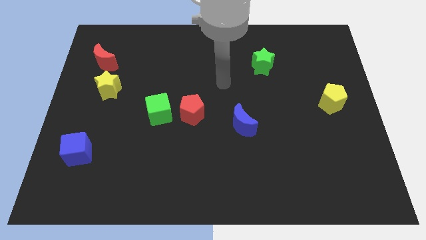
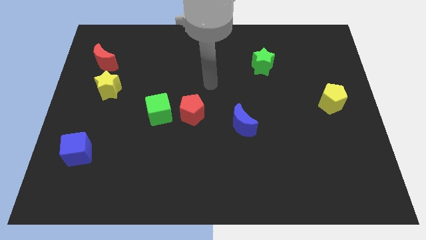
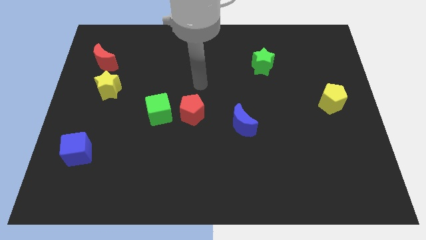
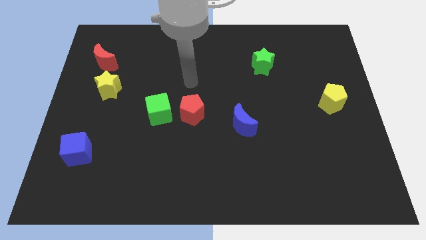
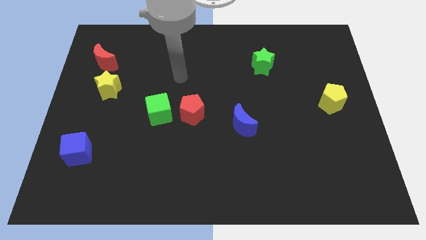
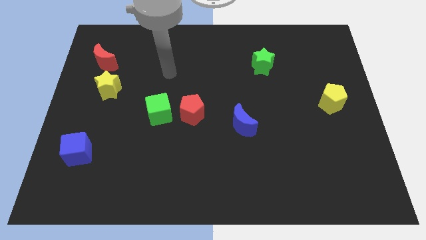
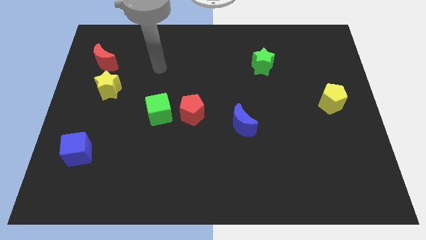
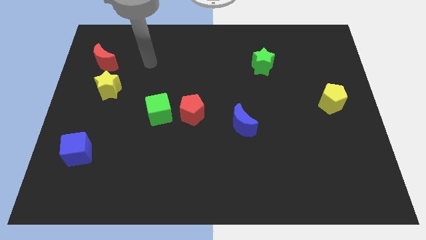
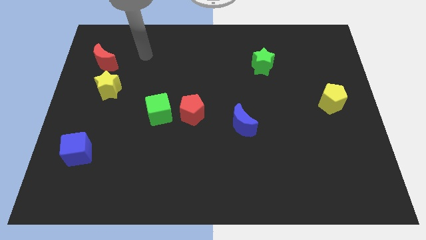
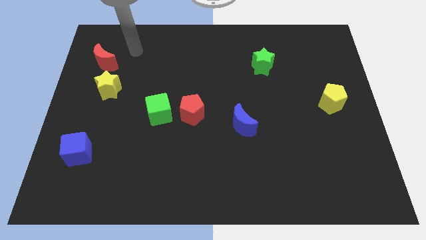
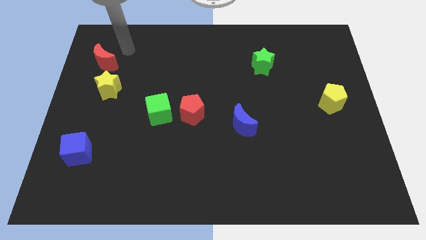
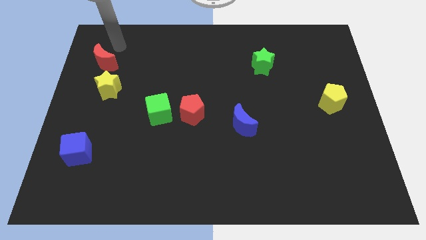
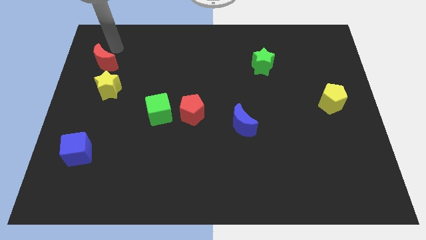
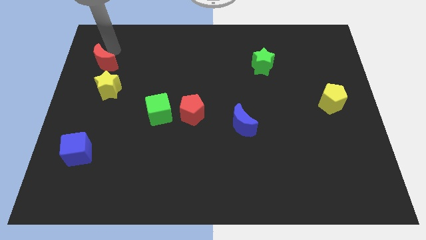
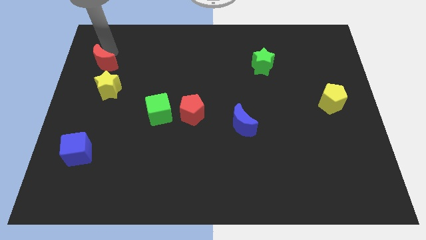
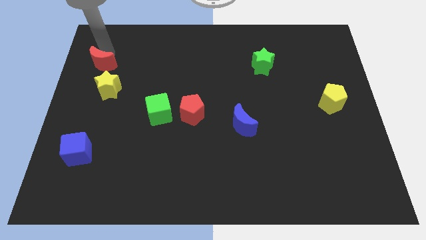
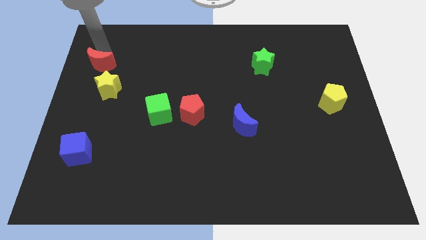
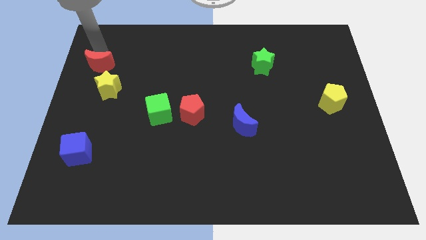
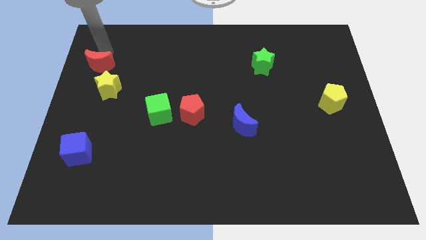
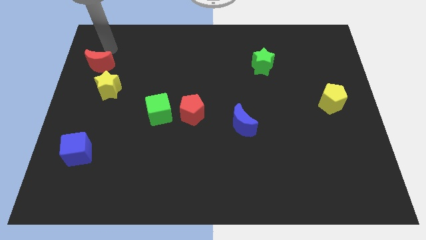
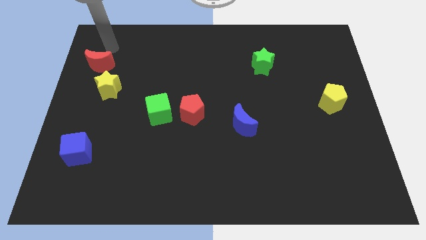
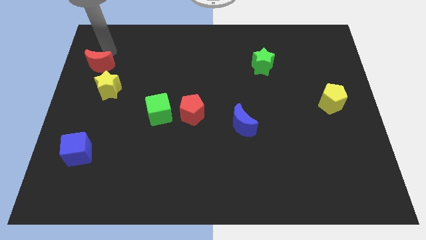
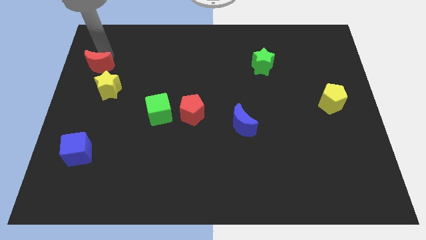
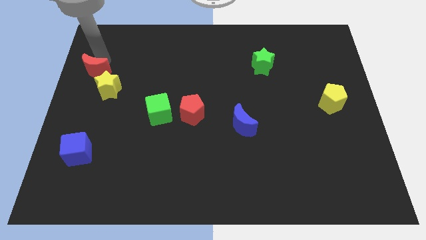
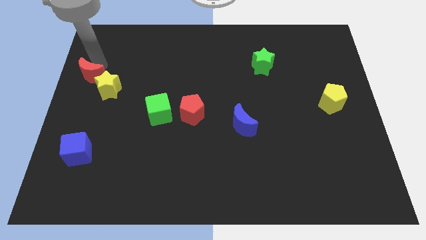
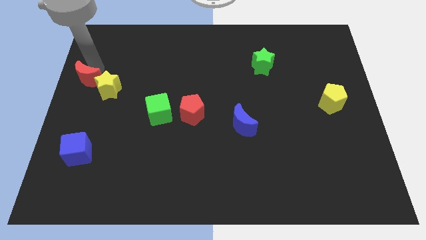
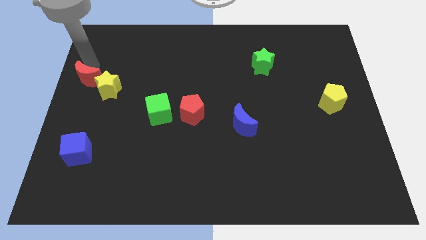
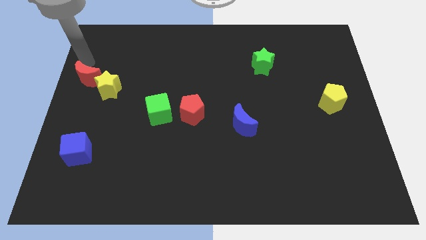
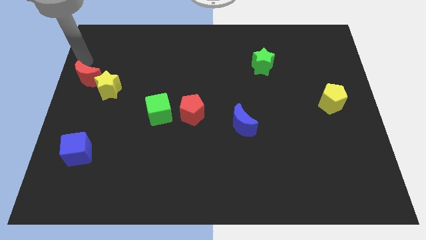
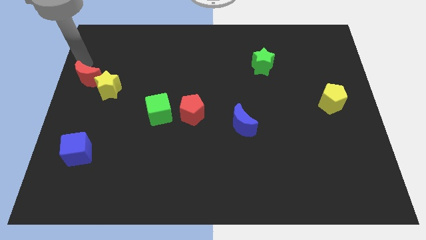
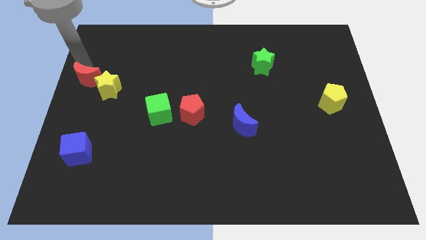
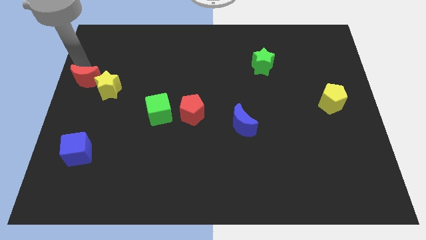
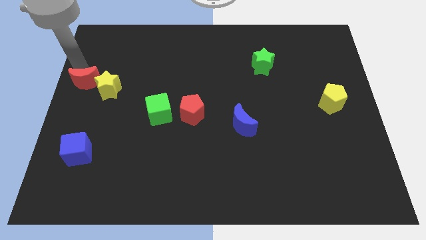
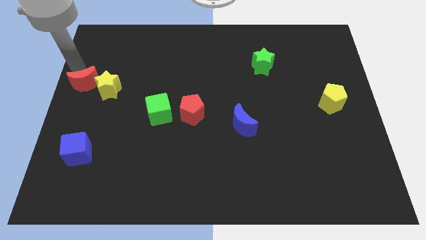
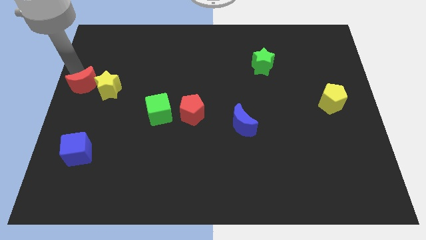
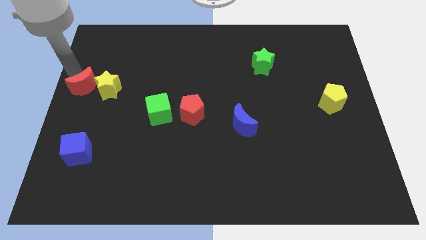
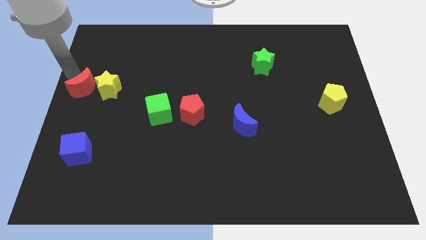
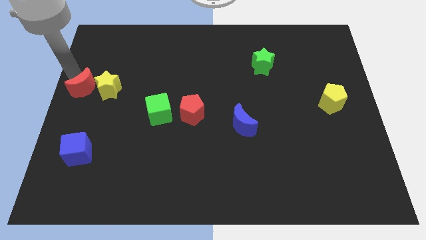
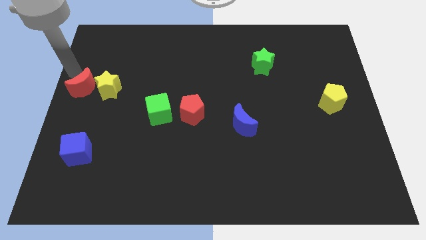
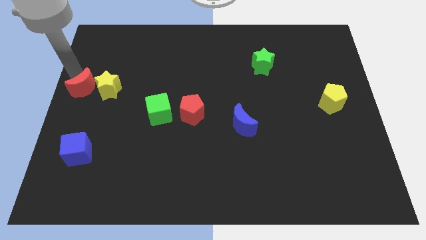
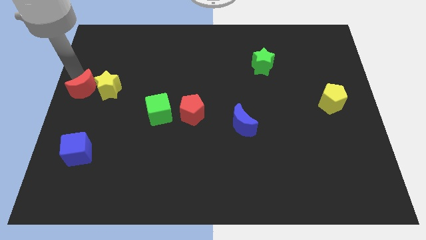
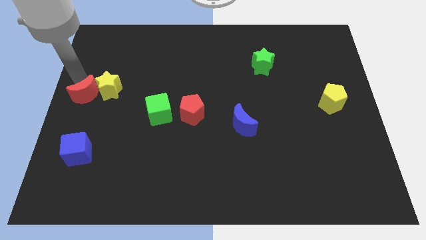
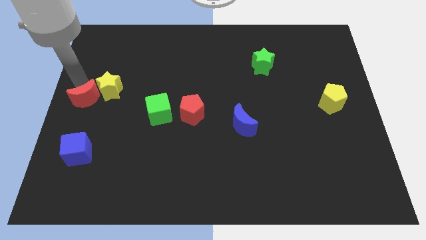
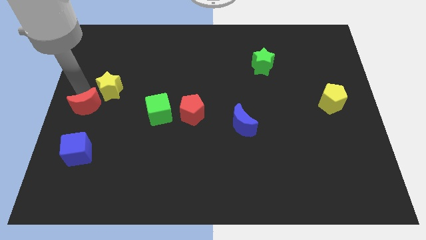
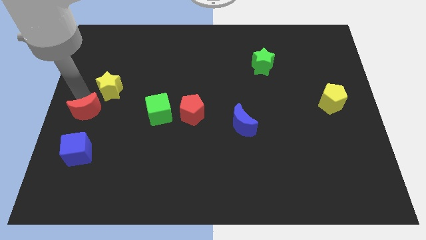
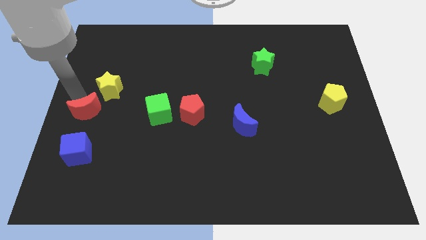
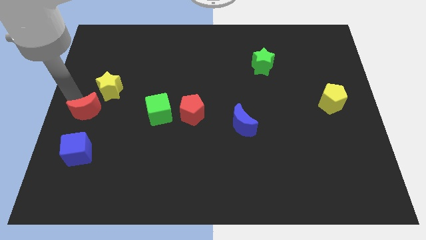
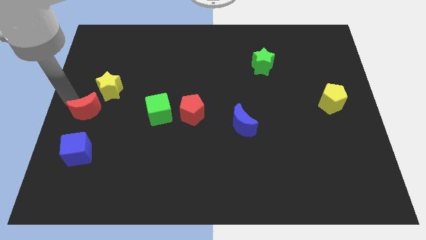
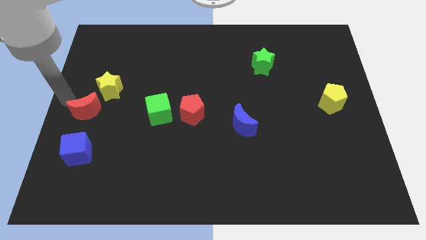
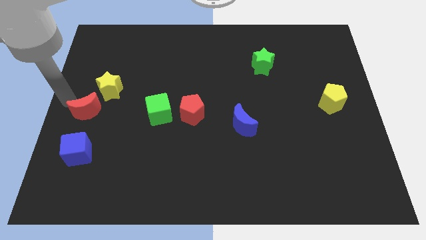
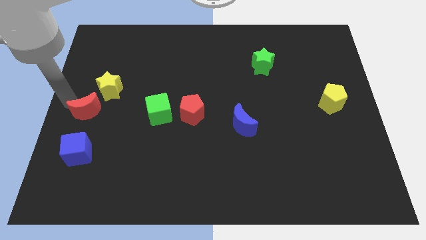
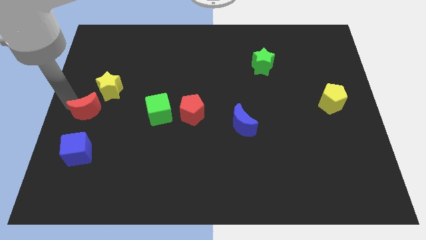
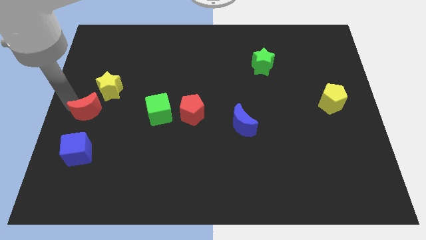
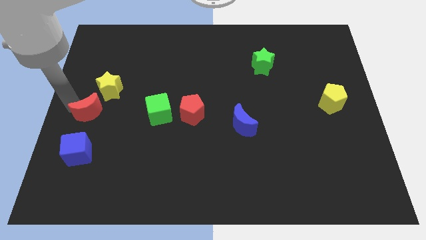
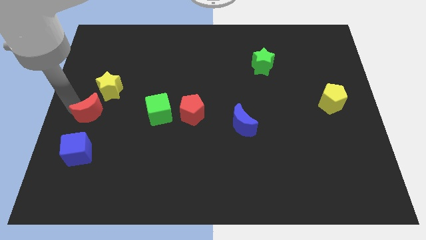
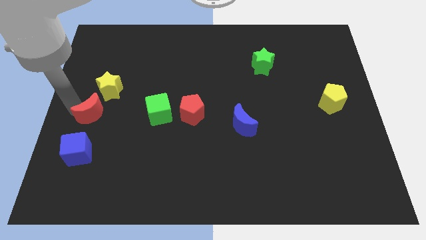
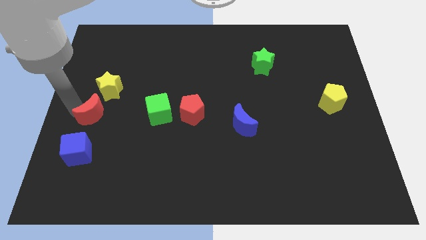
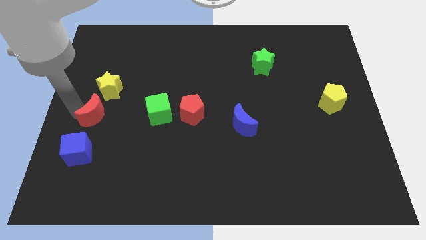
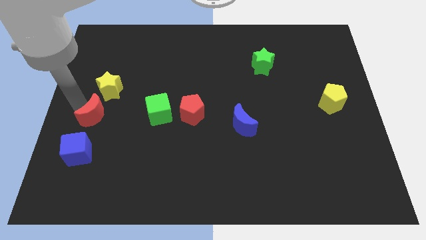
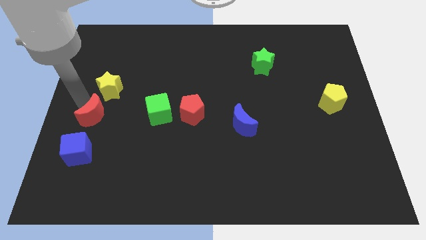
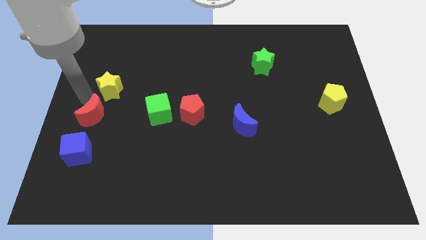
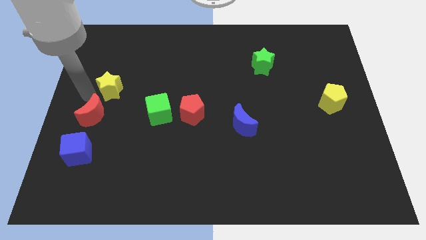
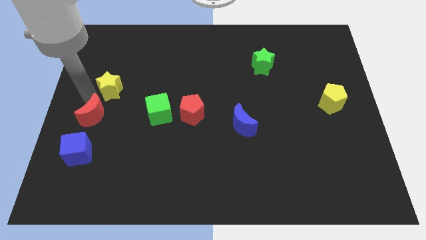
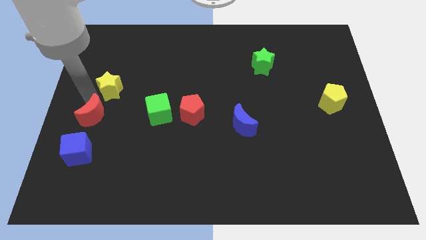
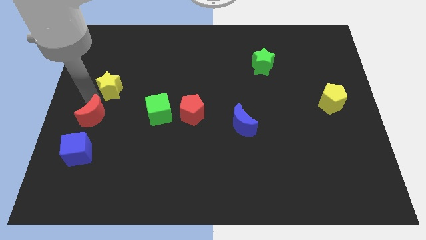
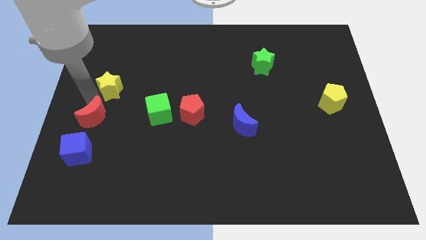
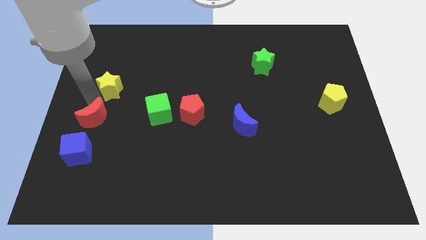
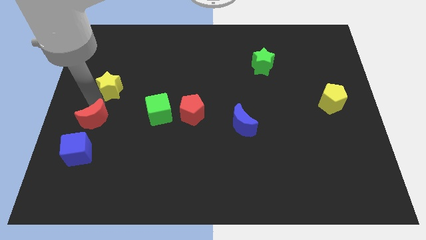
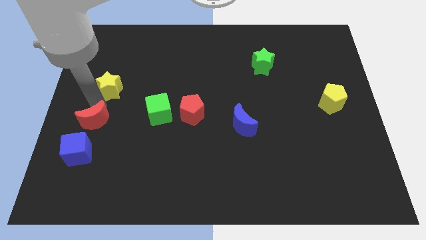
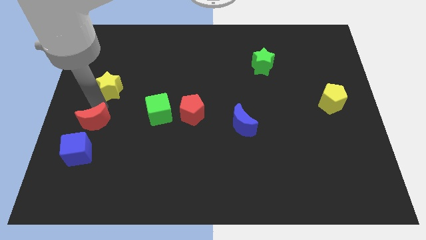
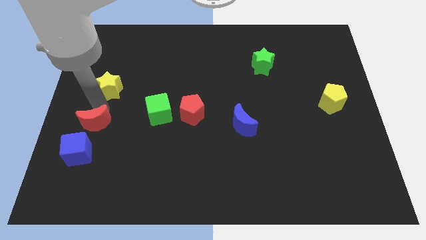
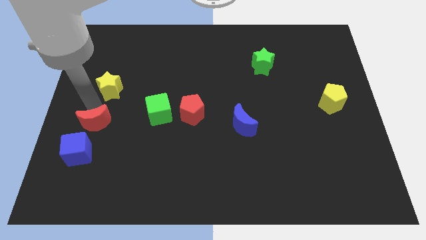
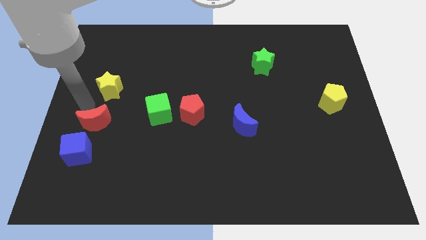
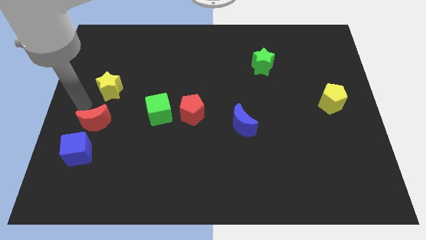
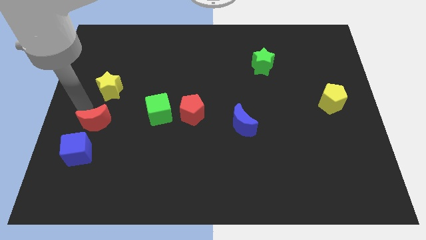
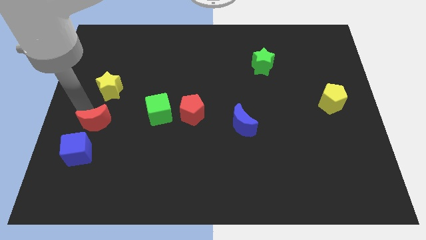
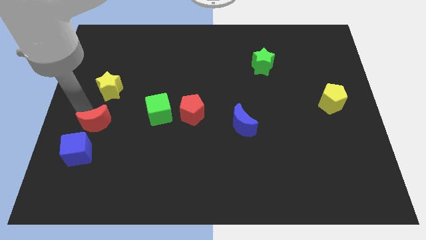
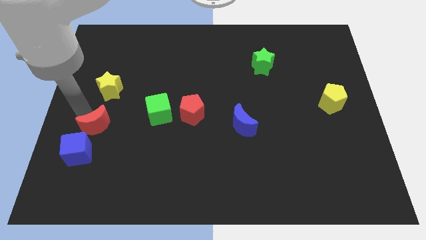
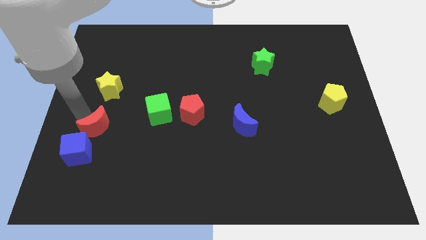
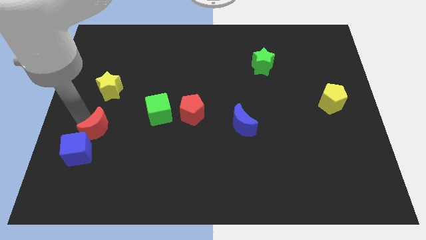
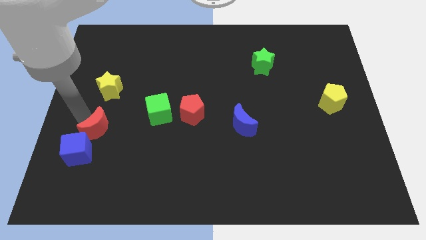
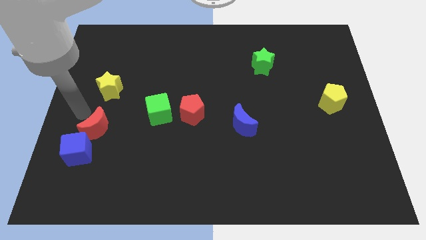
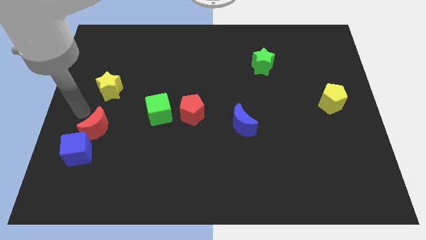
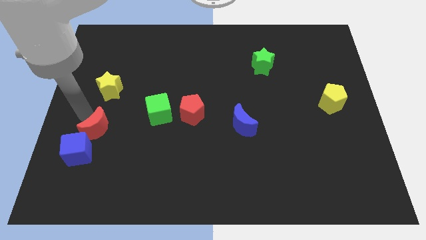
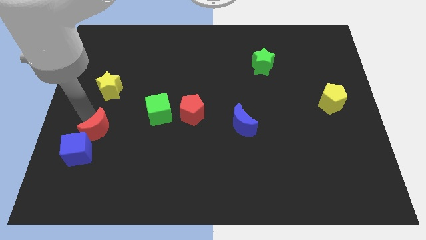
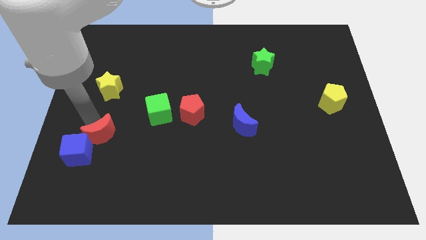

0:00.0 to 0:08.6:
move the red moon to the right side of the blue cube
